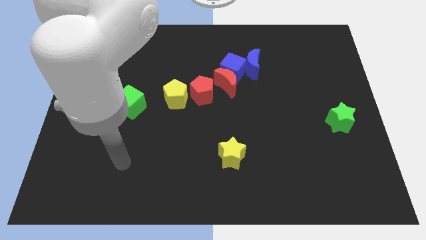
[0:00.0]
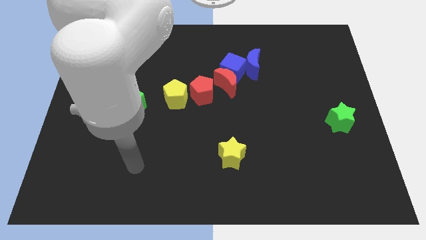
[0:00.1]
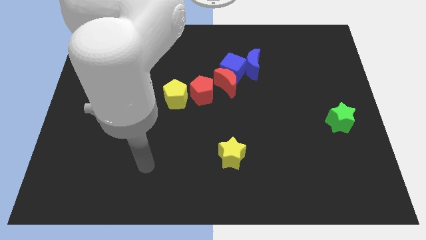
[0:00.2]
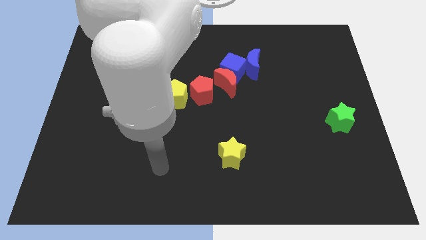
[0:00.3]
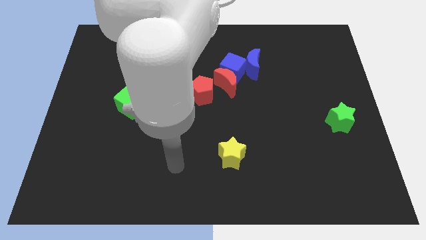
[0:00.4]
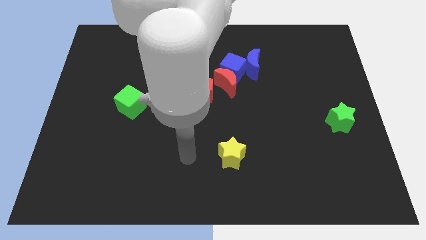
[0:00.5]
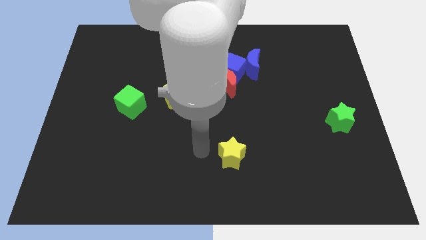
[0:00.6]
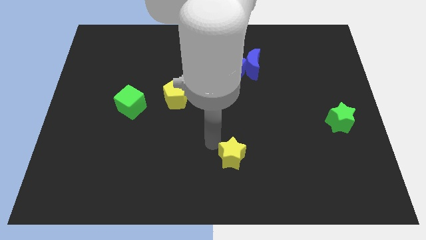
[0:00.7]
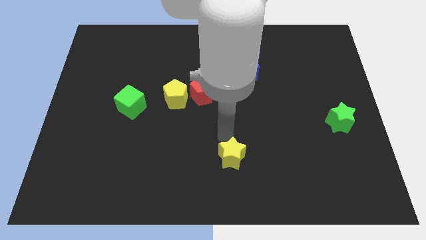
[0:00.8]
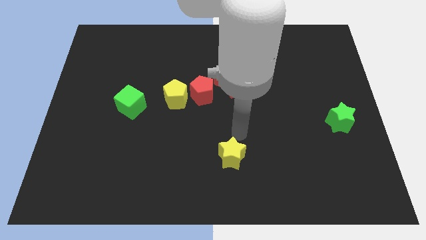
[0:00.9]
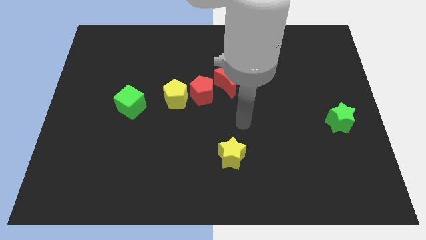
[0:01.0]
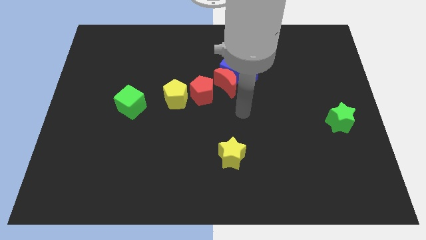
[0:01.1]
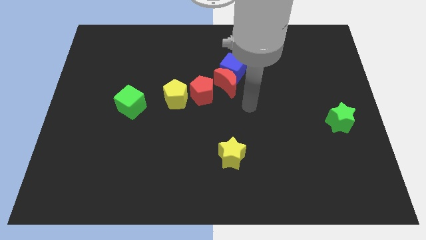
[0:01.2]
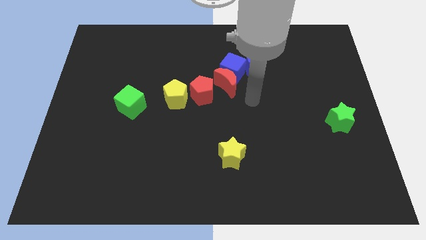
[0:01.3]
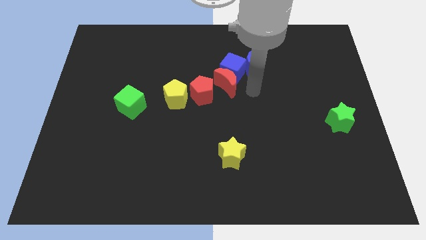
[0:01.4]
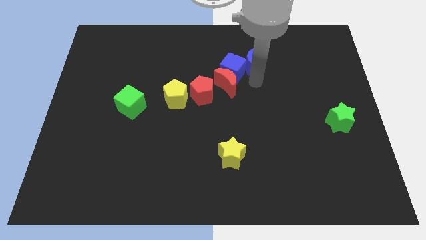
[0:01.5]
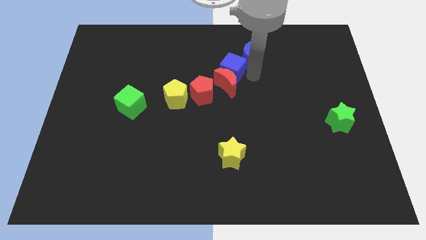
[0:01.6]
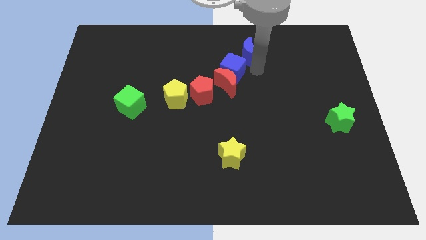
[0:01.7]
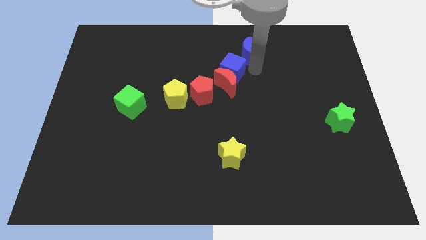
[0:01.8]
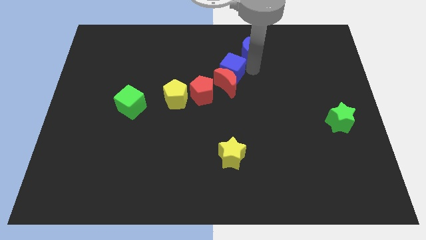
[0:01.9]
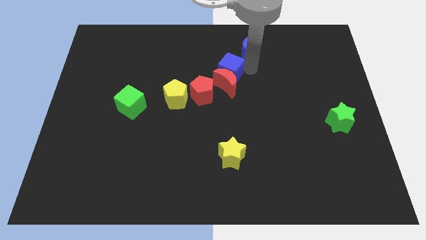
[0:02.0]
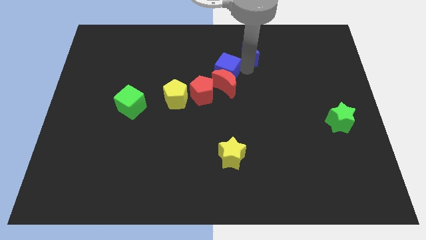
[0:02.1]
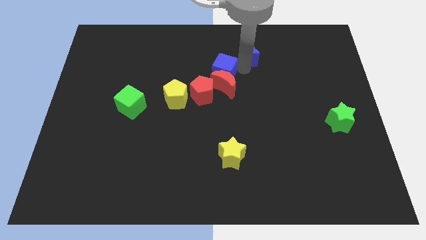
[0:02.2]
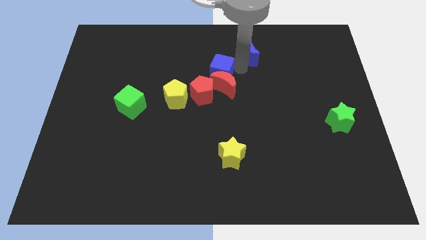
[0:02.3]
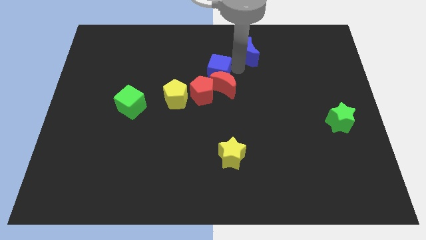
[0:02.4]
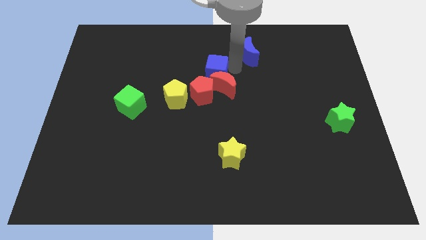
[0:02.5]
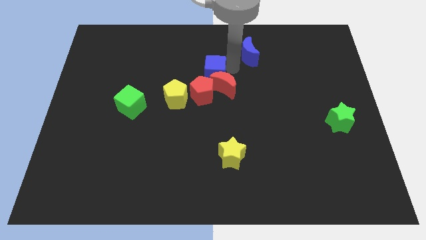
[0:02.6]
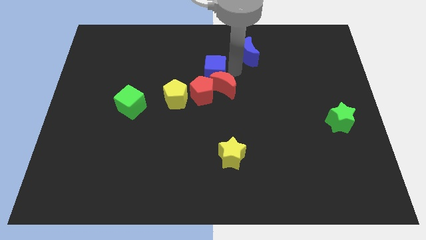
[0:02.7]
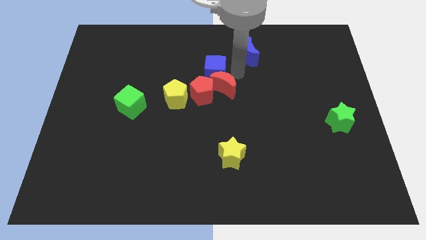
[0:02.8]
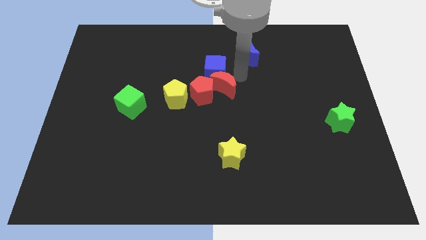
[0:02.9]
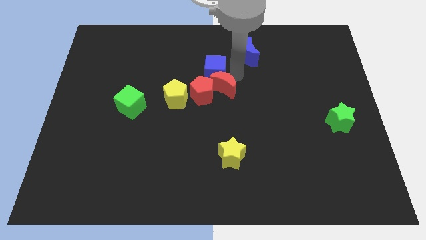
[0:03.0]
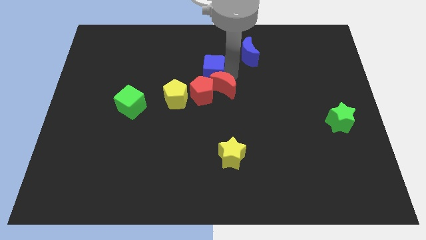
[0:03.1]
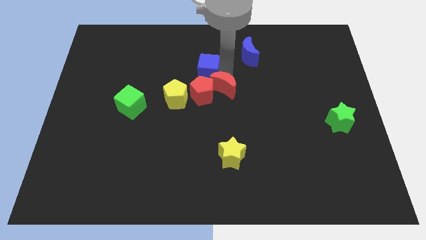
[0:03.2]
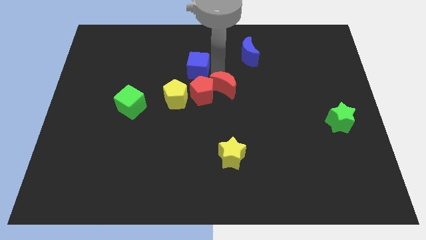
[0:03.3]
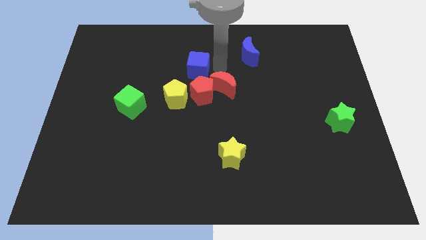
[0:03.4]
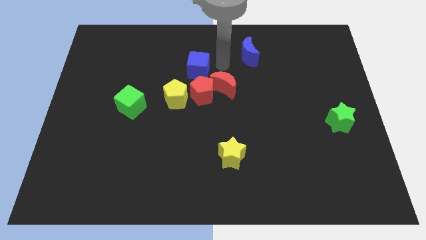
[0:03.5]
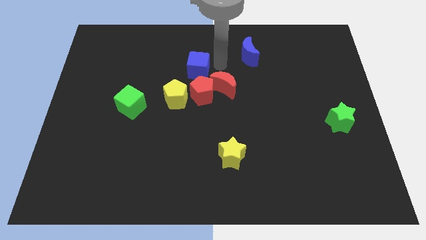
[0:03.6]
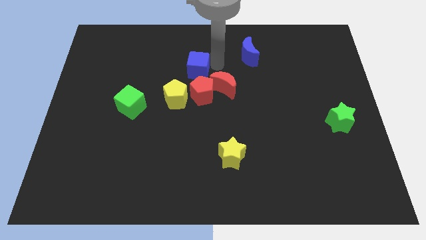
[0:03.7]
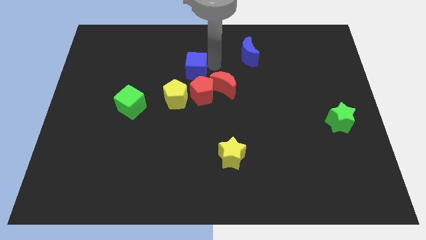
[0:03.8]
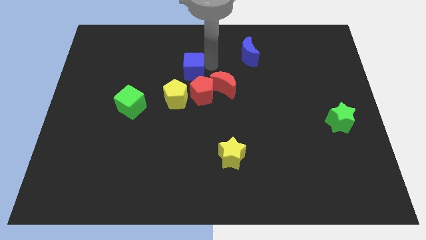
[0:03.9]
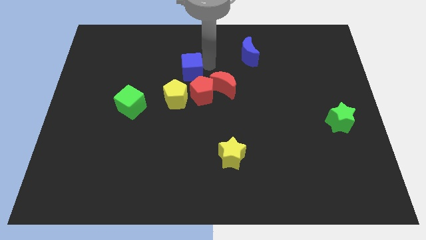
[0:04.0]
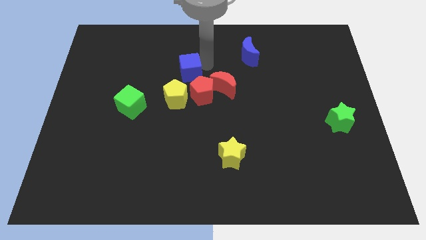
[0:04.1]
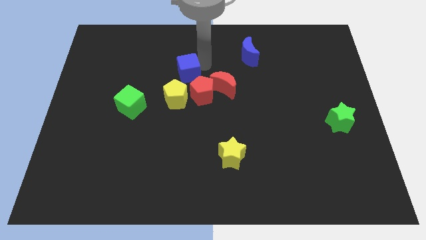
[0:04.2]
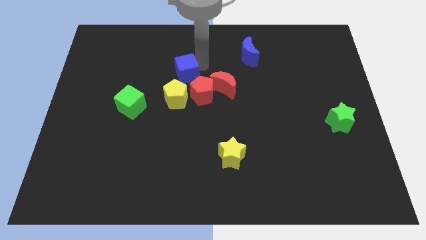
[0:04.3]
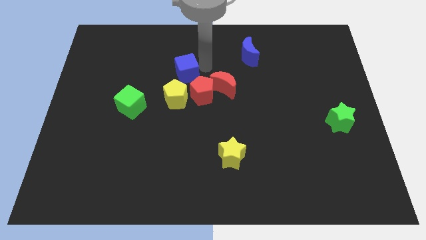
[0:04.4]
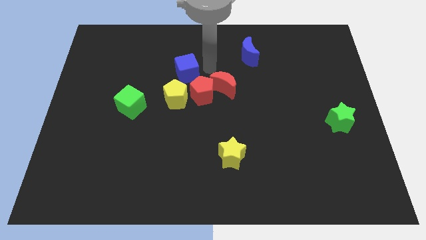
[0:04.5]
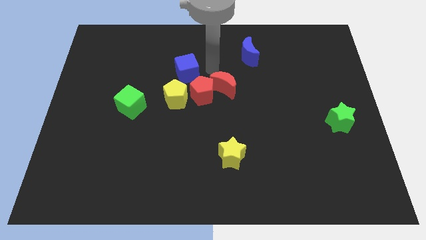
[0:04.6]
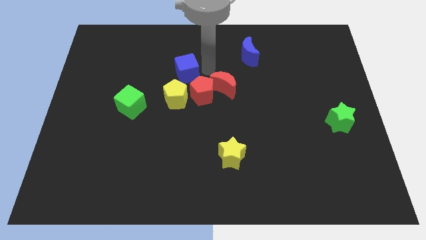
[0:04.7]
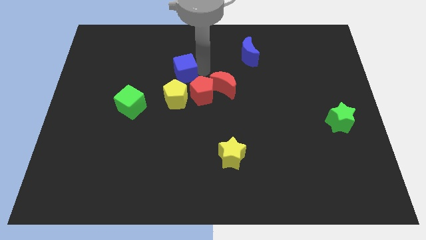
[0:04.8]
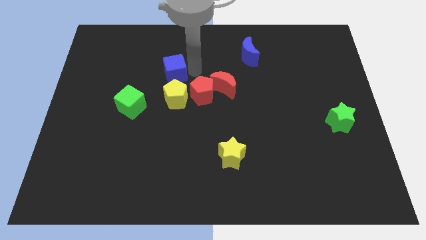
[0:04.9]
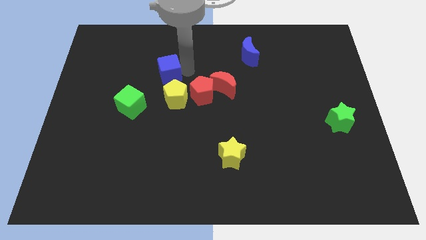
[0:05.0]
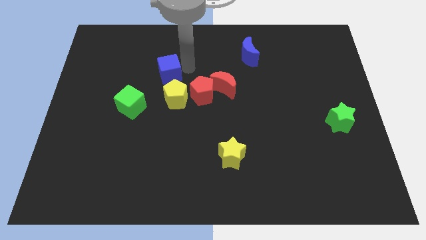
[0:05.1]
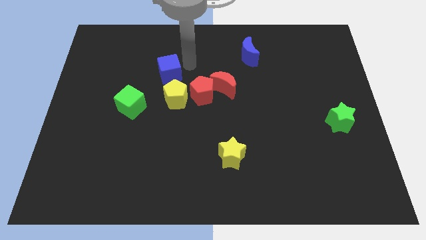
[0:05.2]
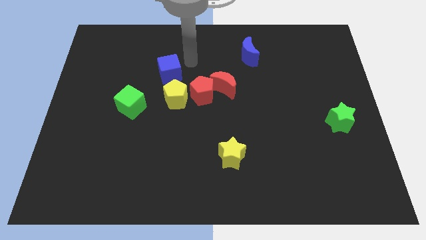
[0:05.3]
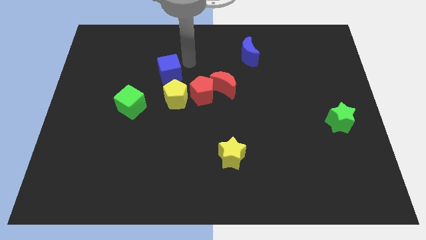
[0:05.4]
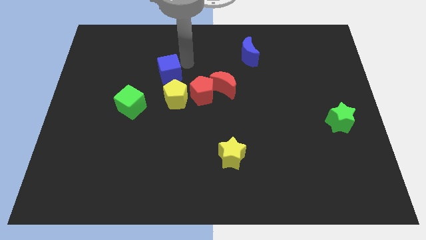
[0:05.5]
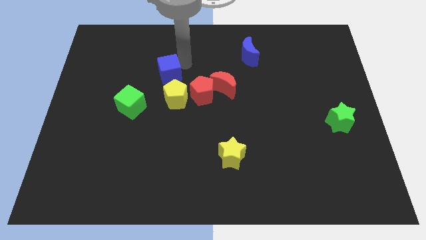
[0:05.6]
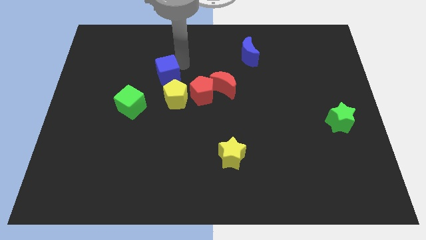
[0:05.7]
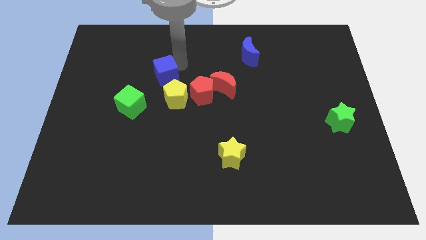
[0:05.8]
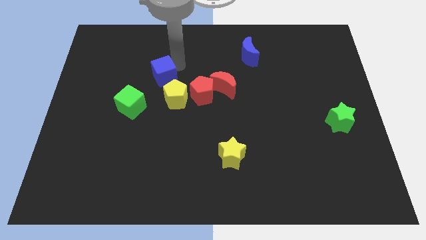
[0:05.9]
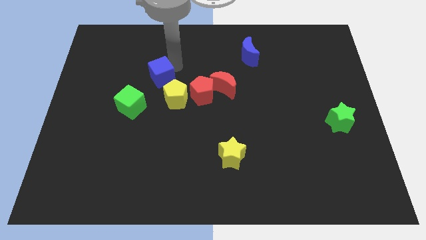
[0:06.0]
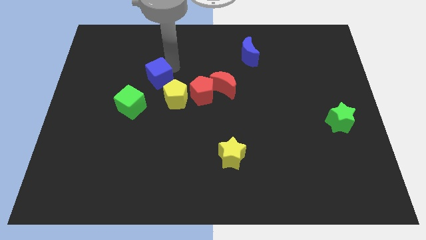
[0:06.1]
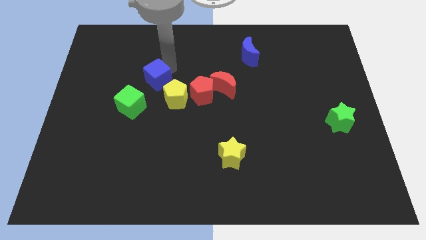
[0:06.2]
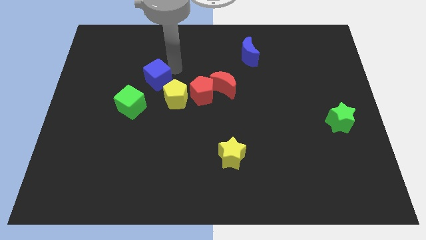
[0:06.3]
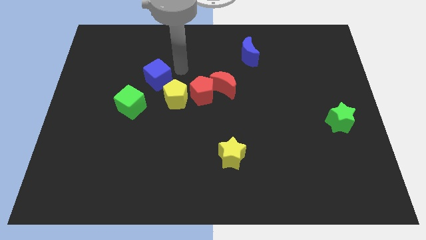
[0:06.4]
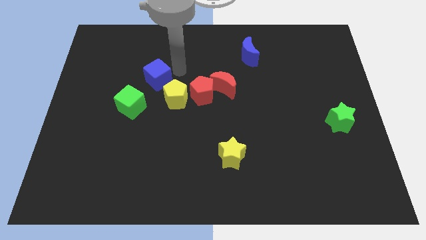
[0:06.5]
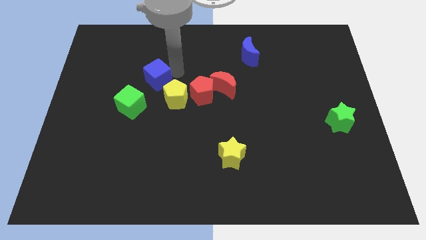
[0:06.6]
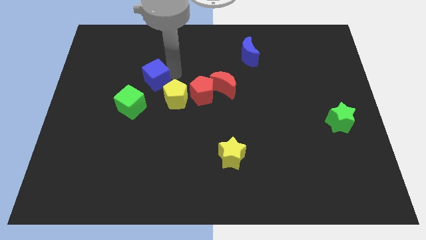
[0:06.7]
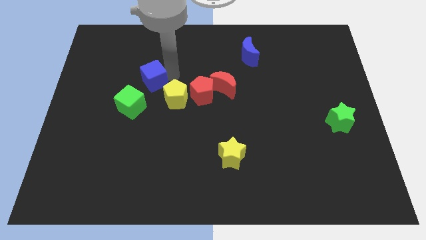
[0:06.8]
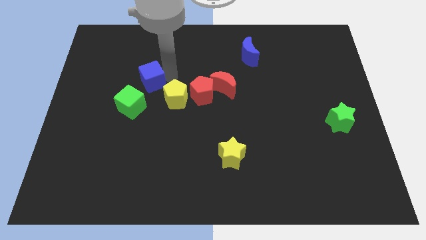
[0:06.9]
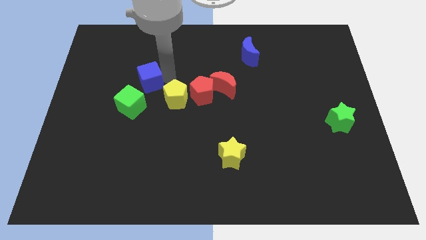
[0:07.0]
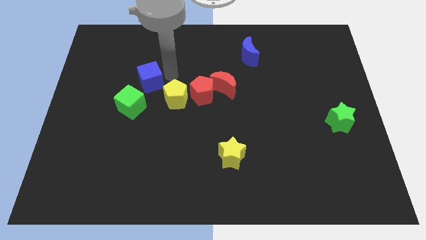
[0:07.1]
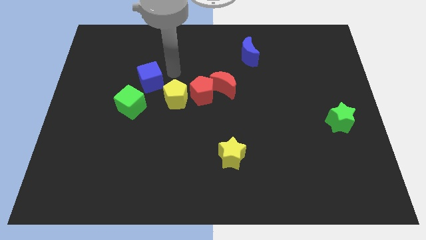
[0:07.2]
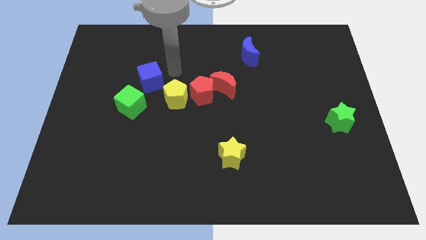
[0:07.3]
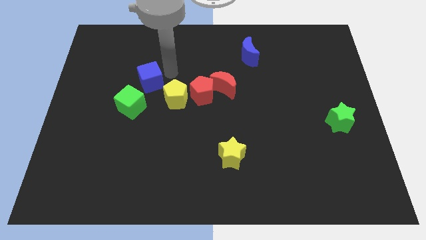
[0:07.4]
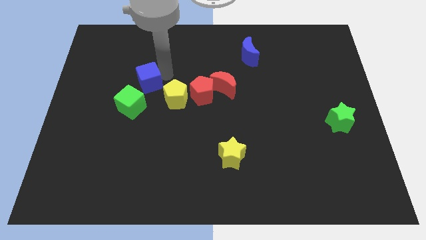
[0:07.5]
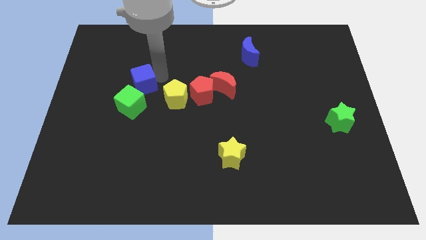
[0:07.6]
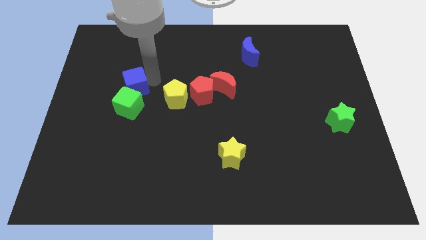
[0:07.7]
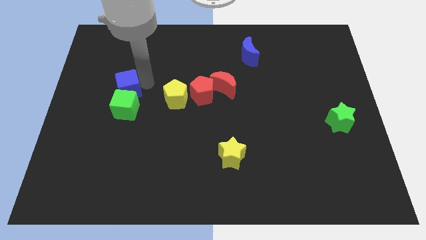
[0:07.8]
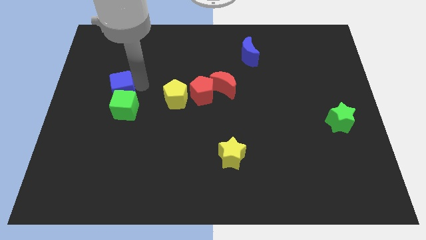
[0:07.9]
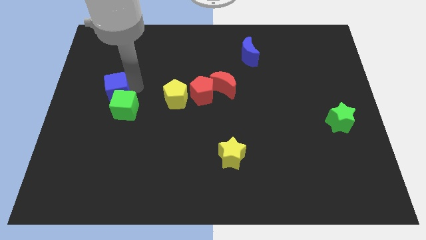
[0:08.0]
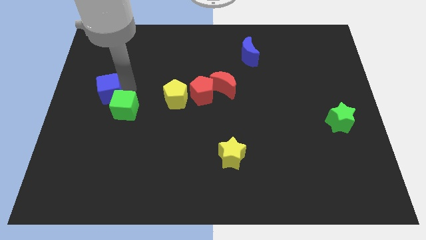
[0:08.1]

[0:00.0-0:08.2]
slide the blue cube to the center left

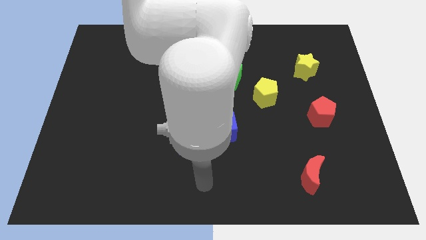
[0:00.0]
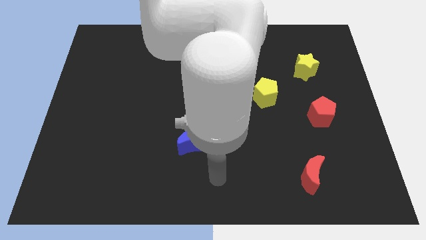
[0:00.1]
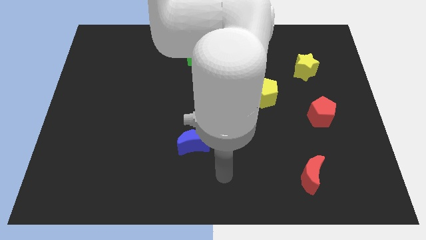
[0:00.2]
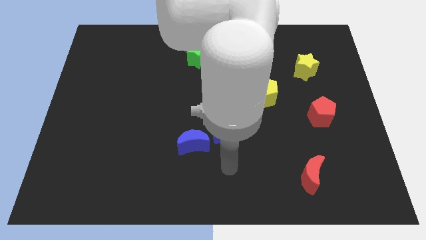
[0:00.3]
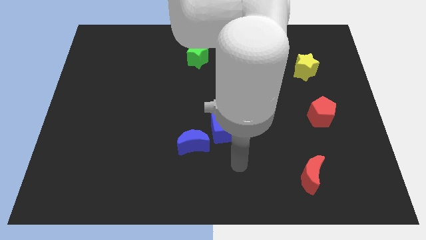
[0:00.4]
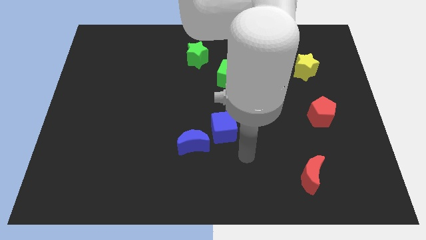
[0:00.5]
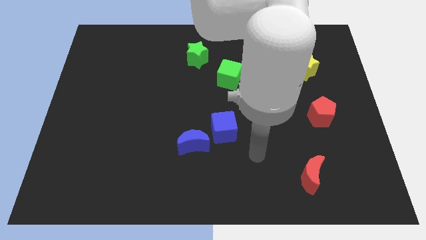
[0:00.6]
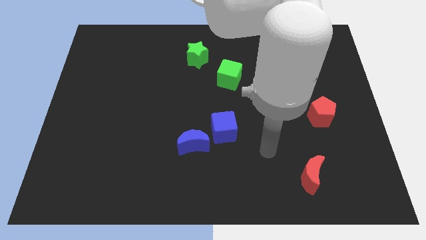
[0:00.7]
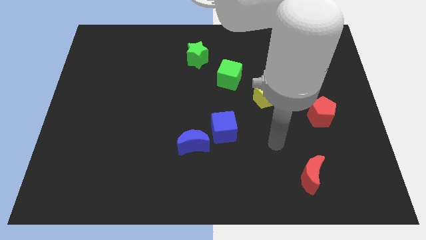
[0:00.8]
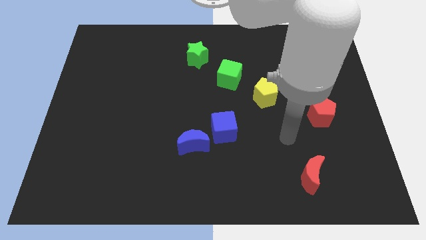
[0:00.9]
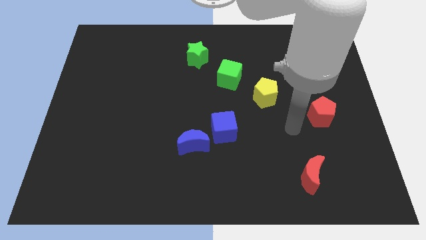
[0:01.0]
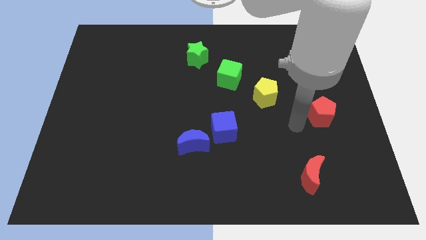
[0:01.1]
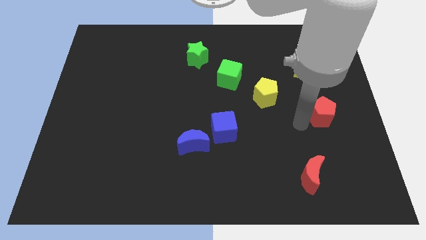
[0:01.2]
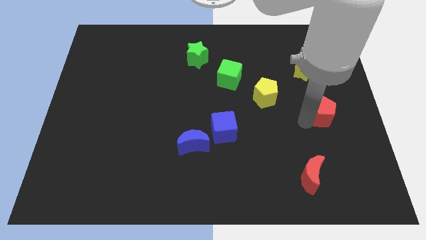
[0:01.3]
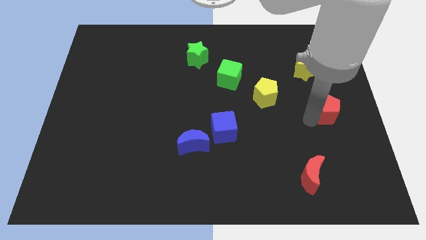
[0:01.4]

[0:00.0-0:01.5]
put the red pentagon to the center right
